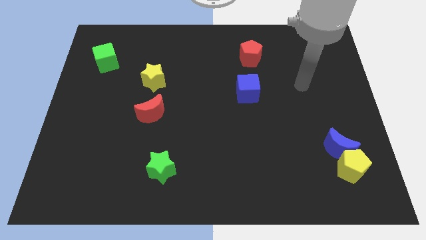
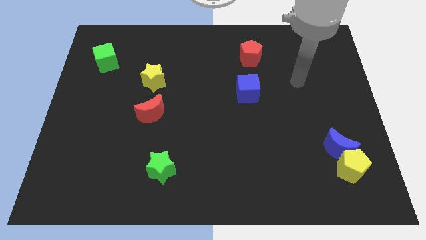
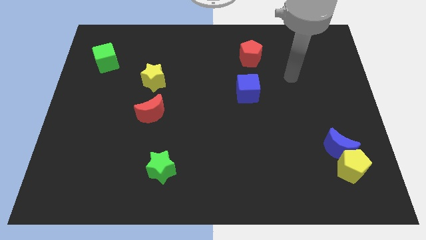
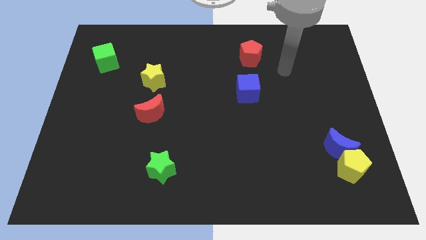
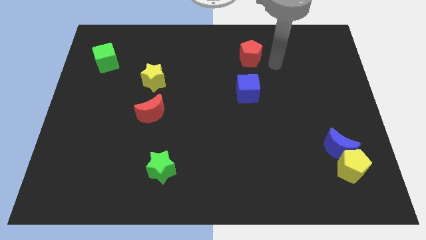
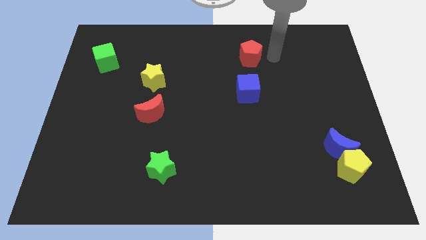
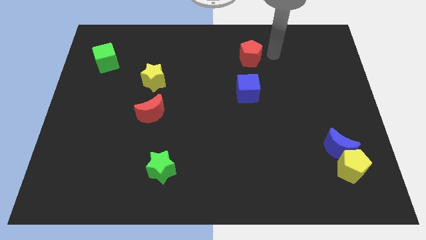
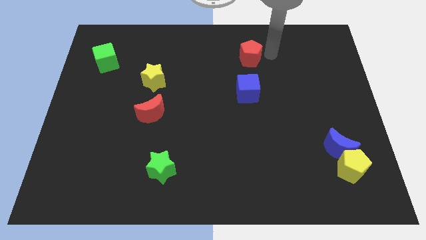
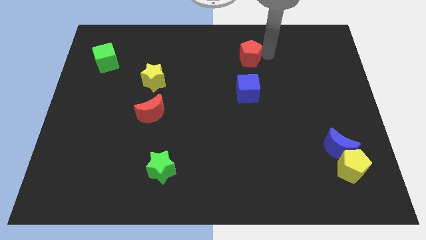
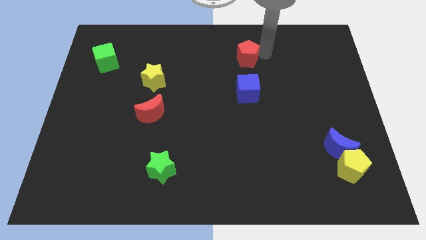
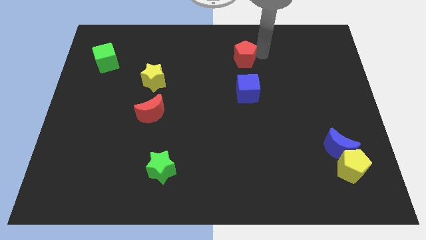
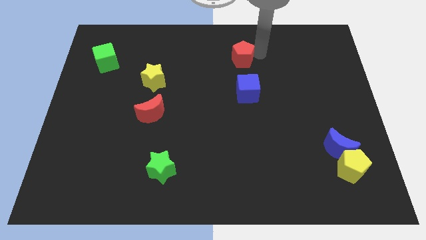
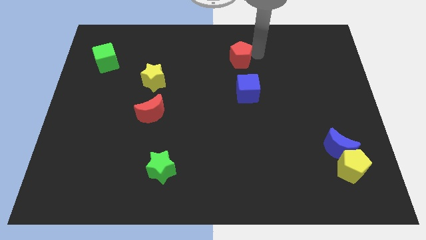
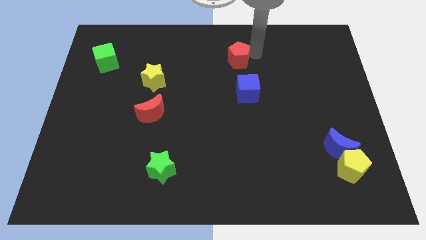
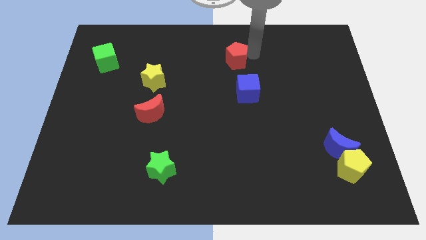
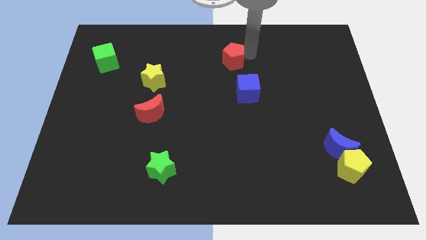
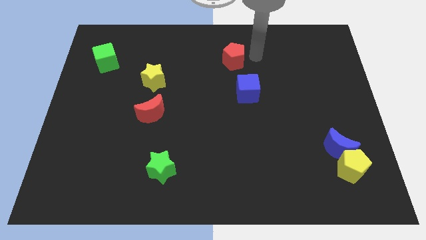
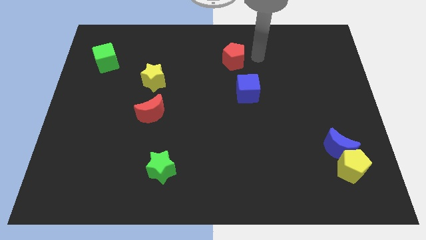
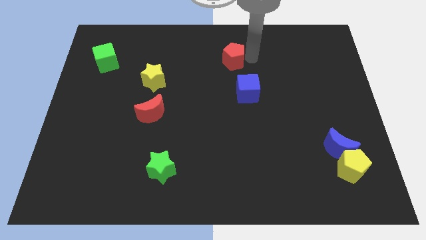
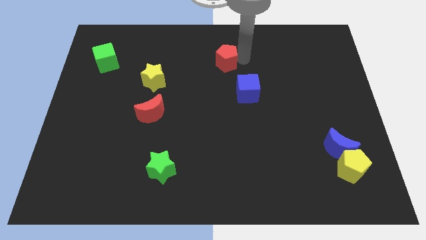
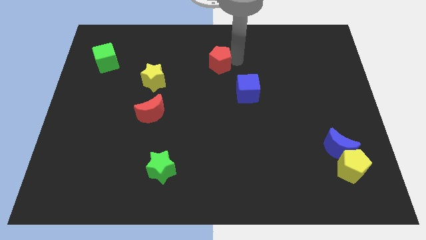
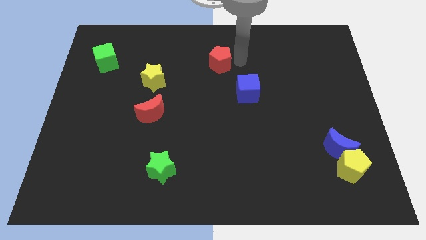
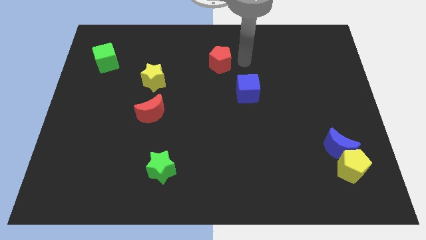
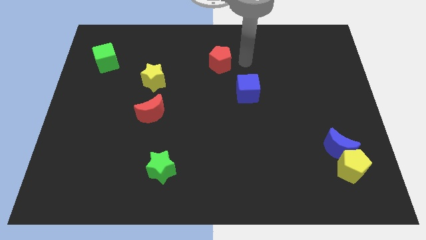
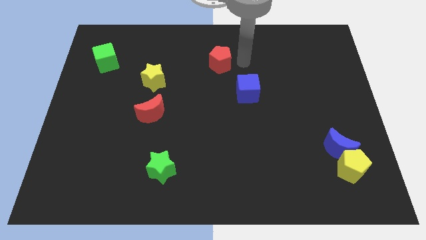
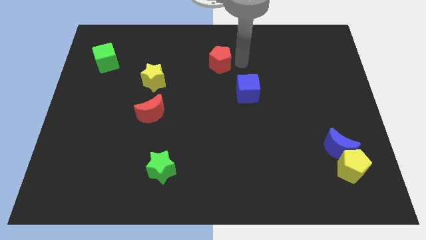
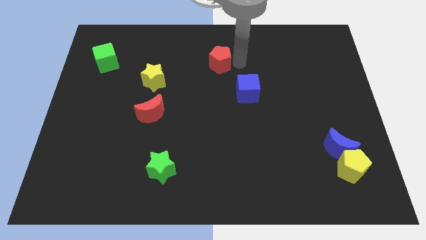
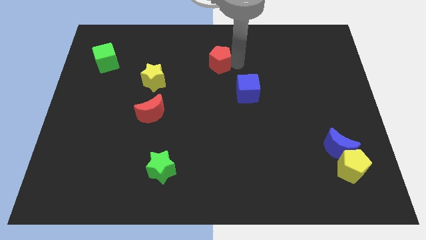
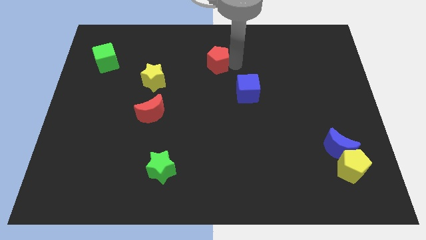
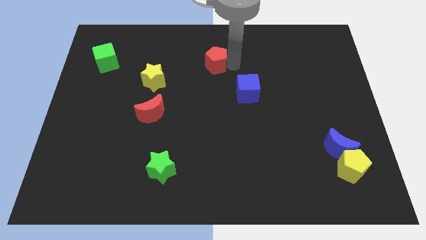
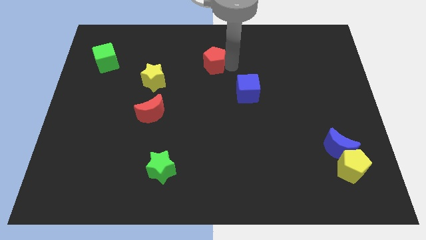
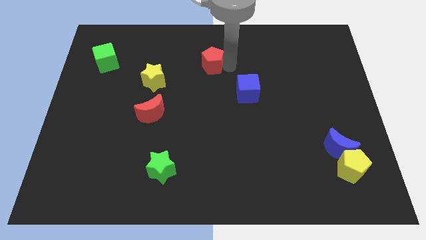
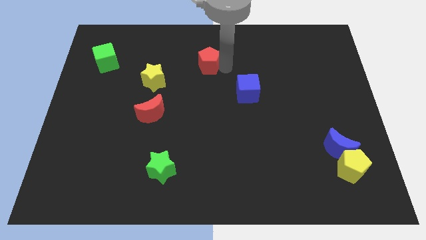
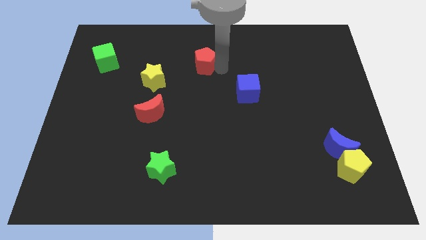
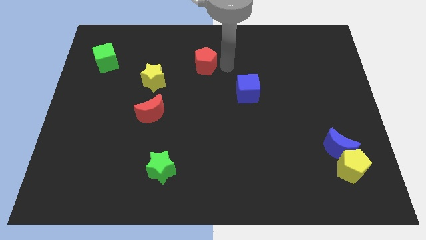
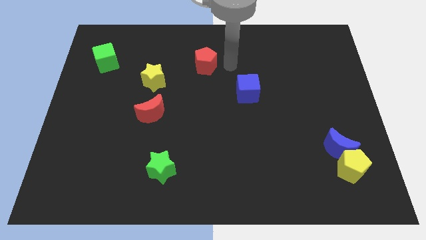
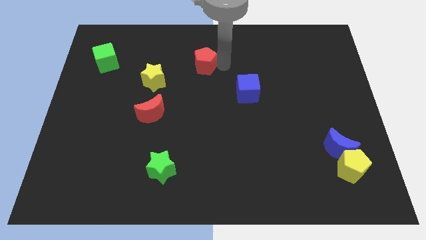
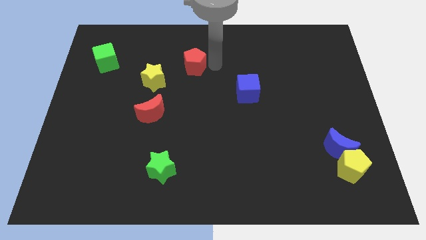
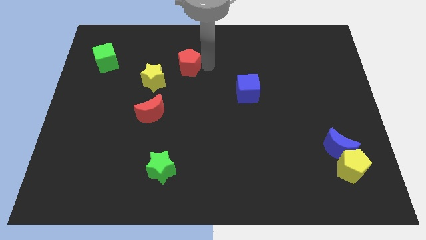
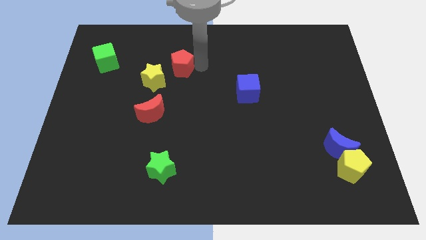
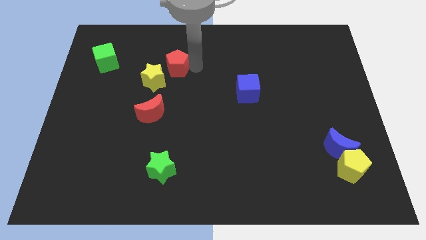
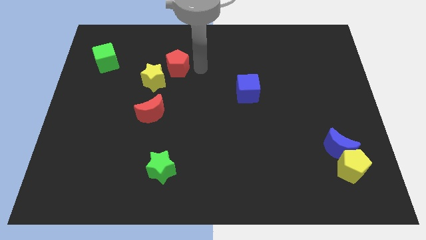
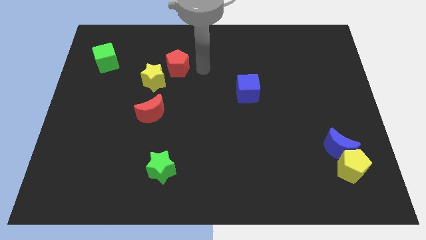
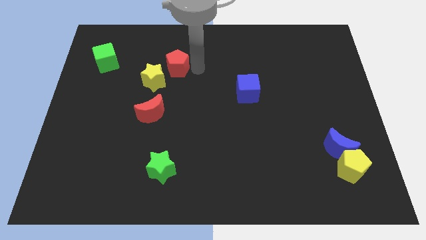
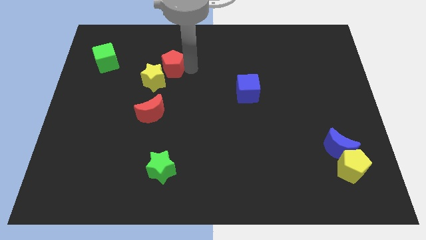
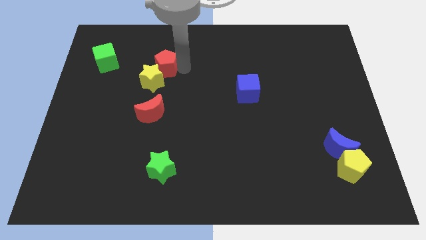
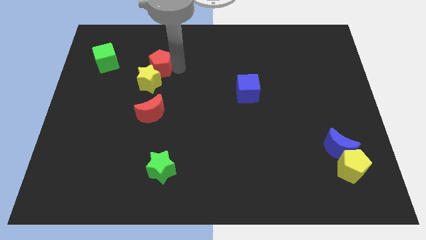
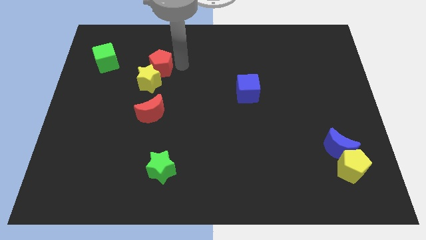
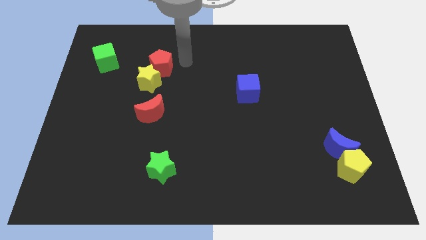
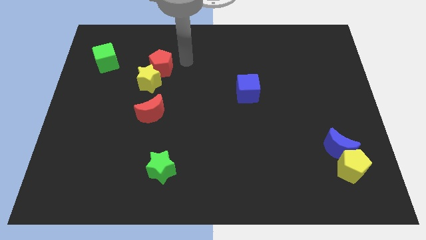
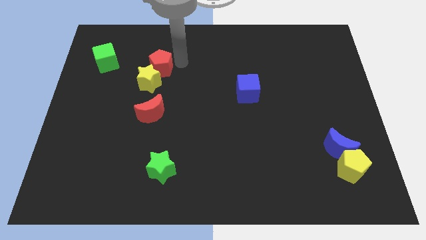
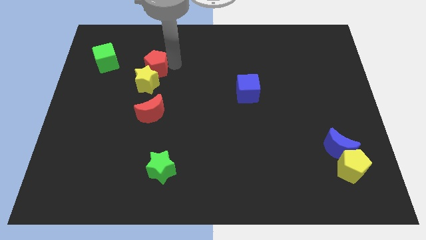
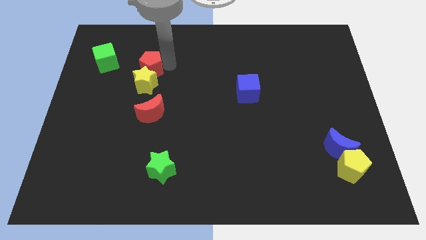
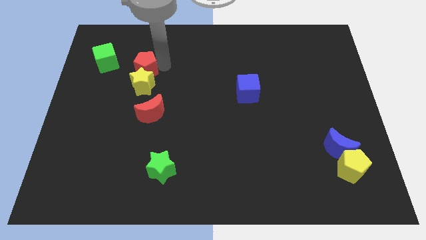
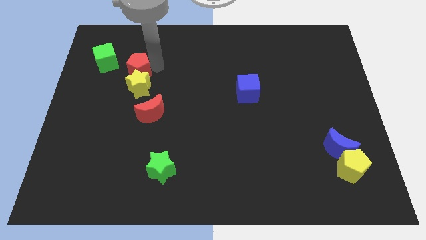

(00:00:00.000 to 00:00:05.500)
move the red pentagon to the bottom right side of the green cube

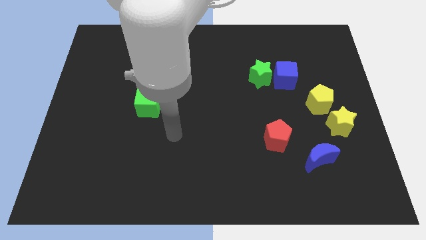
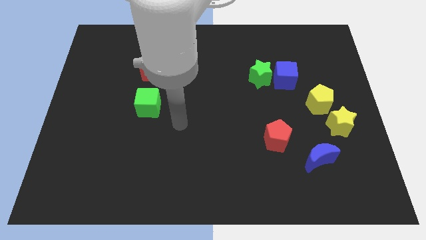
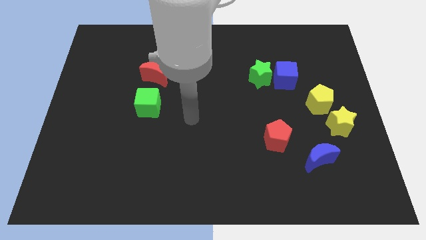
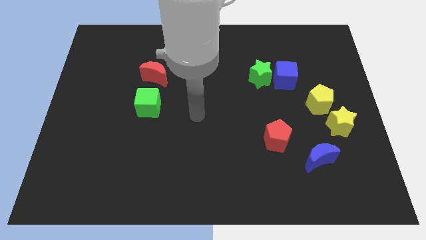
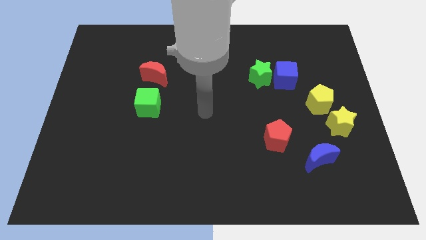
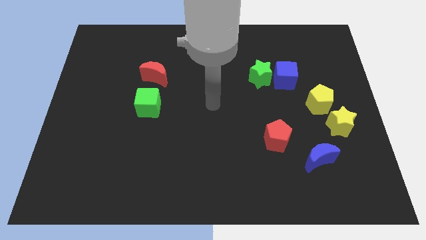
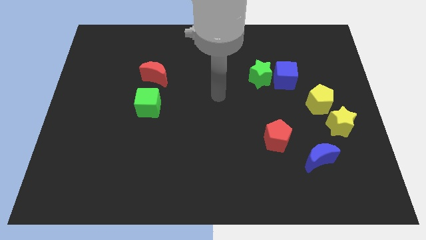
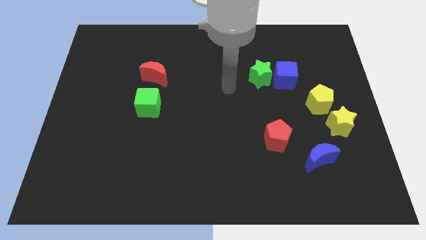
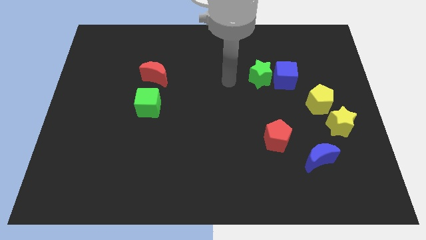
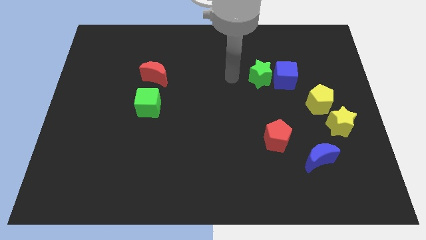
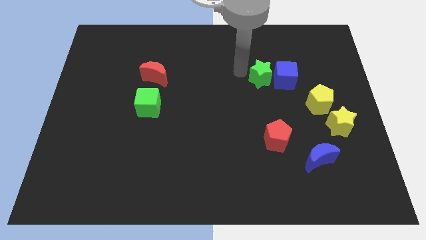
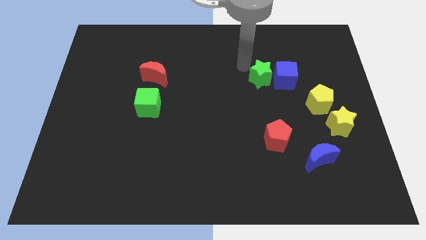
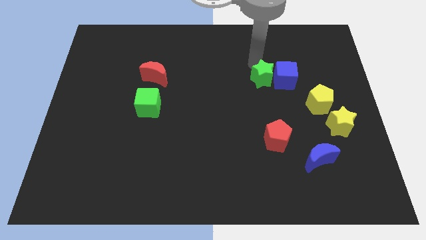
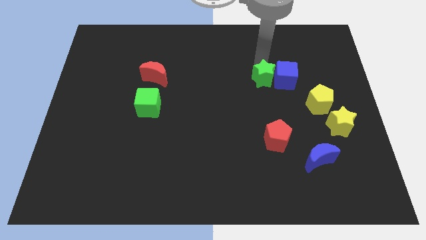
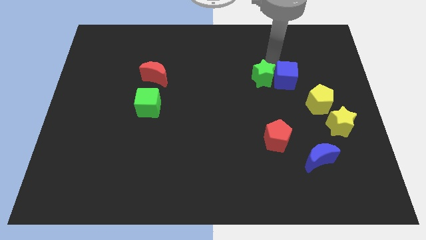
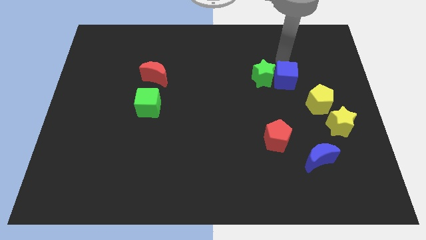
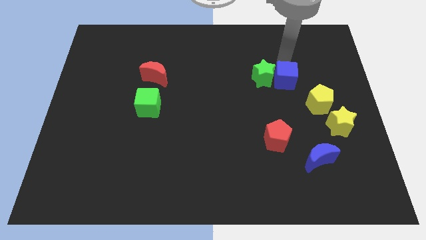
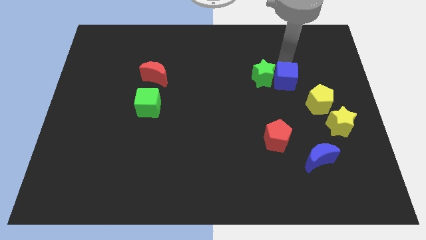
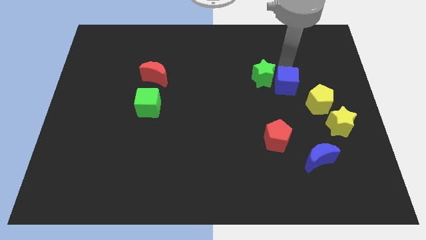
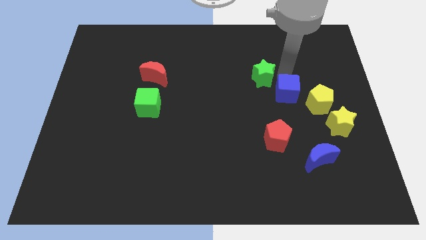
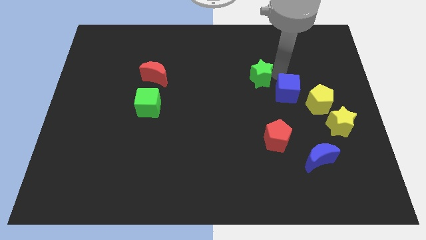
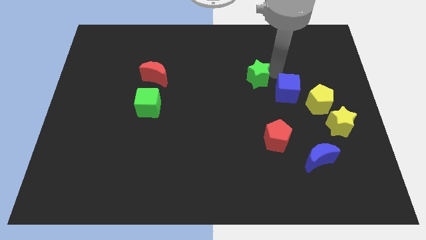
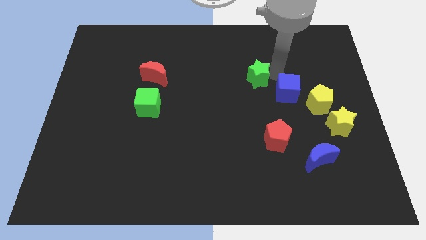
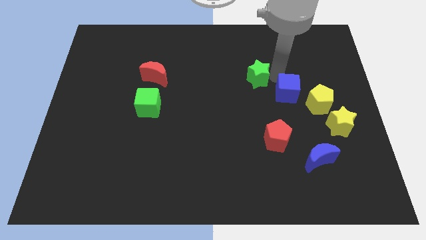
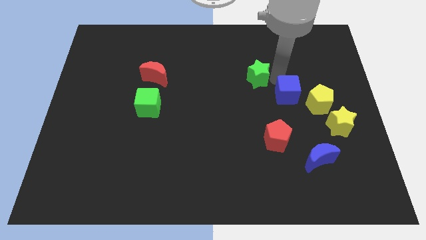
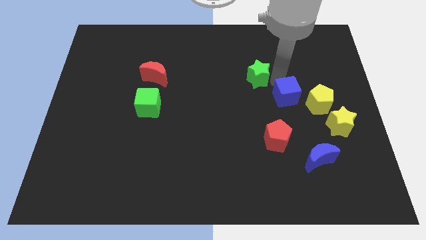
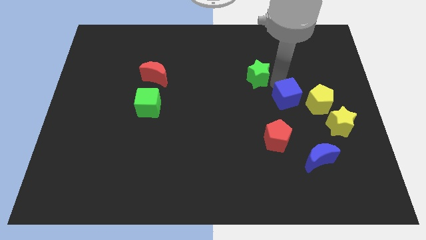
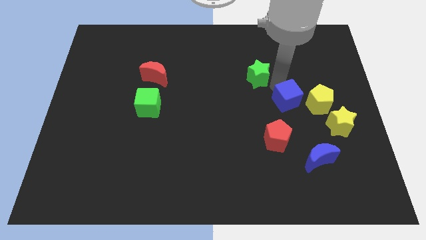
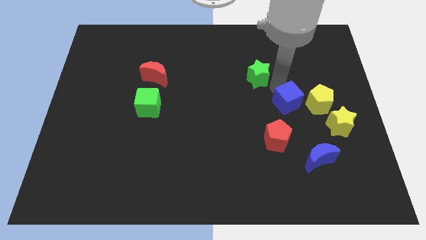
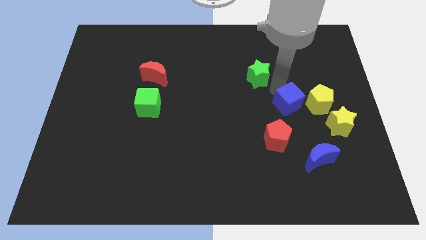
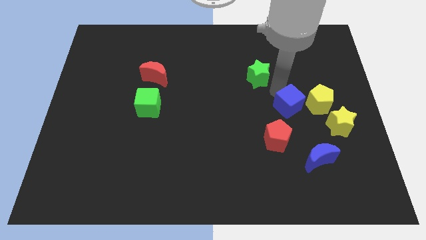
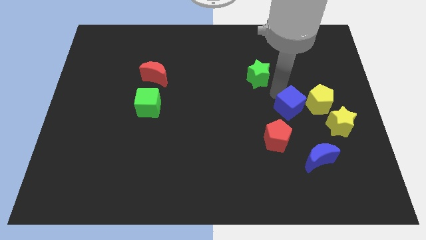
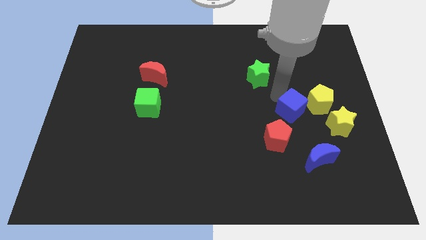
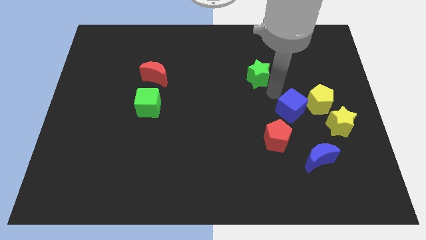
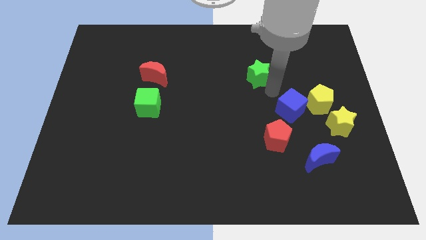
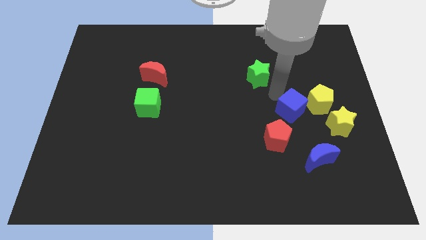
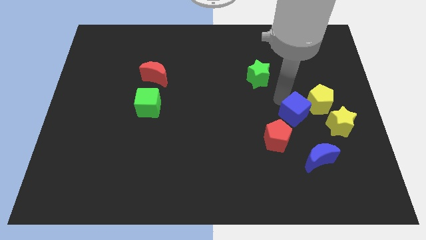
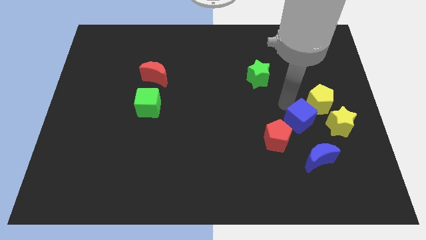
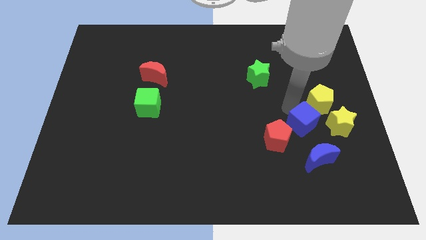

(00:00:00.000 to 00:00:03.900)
push the blue cube just right of the red pentagon
